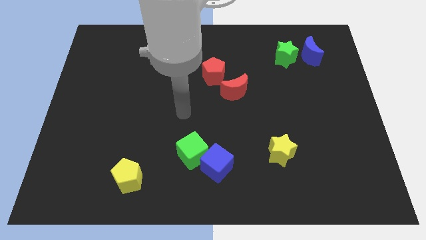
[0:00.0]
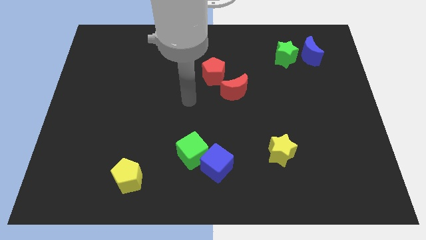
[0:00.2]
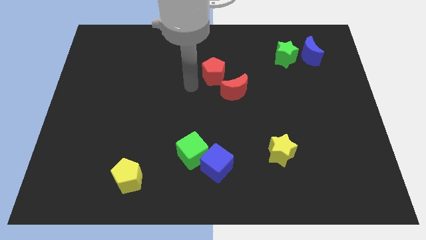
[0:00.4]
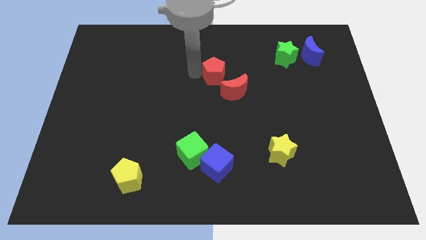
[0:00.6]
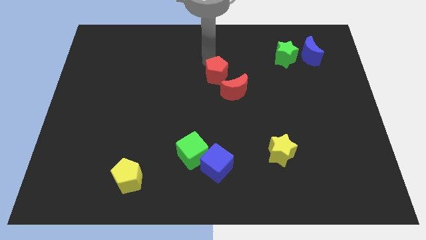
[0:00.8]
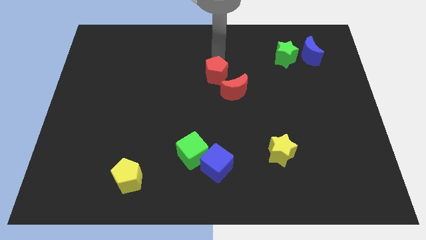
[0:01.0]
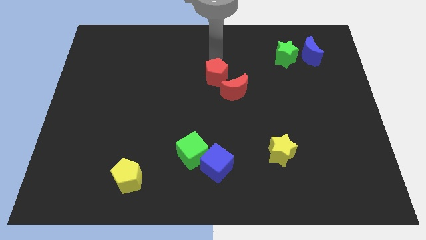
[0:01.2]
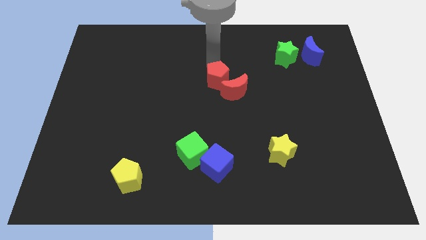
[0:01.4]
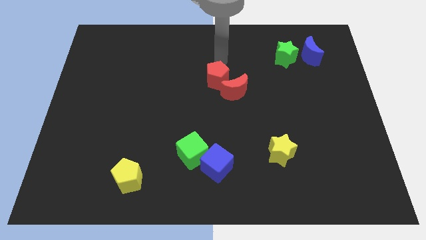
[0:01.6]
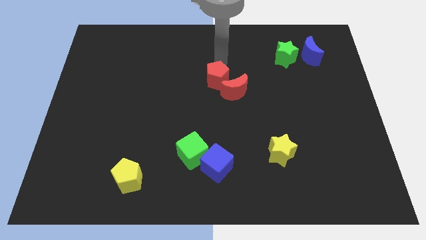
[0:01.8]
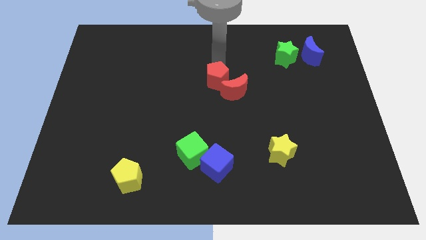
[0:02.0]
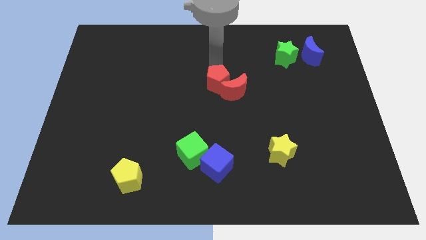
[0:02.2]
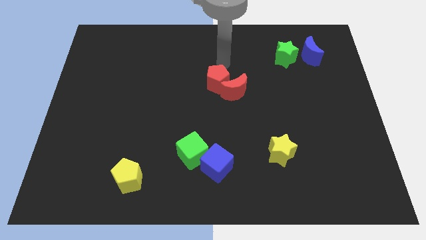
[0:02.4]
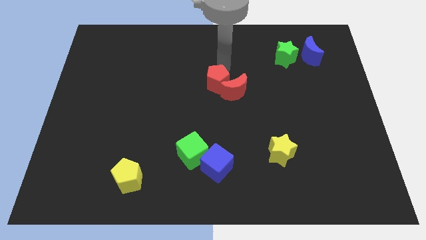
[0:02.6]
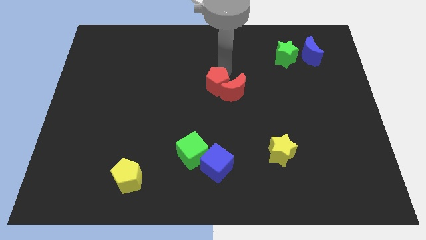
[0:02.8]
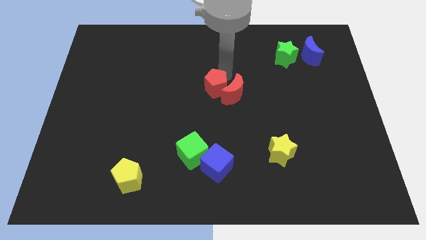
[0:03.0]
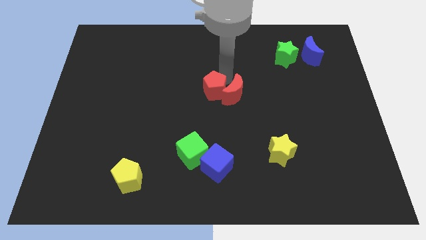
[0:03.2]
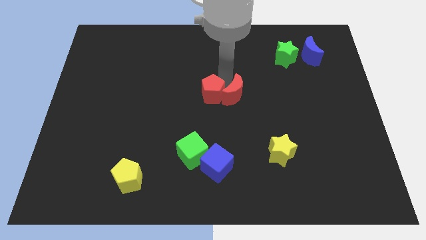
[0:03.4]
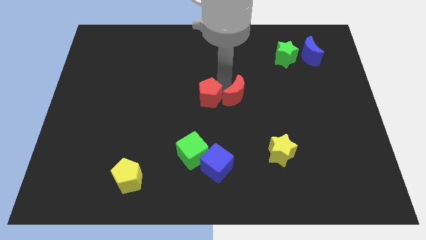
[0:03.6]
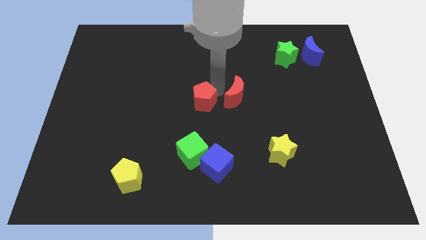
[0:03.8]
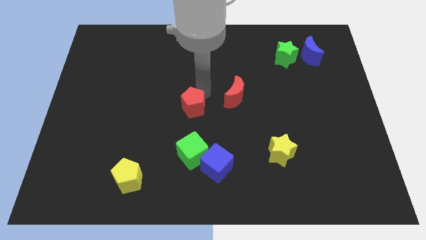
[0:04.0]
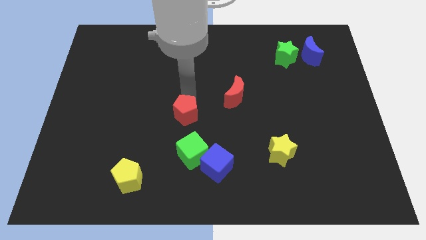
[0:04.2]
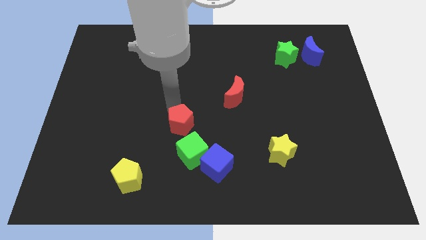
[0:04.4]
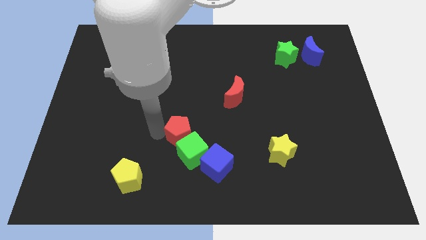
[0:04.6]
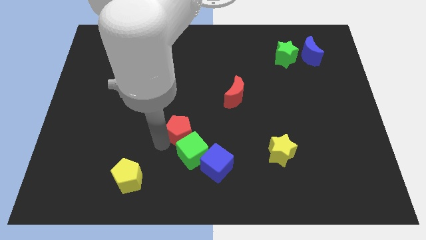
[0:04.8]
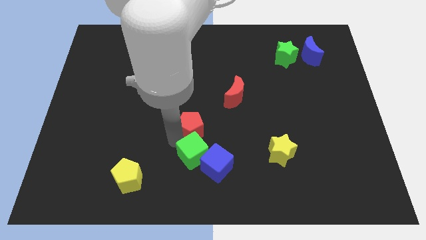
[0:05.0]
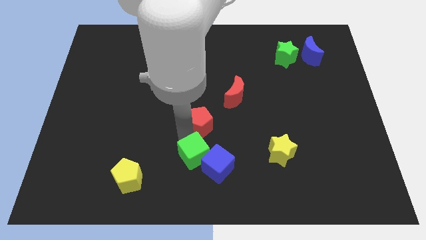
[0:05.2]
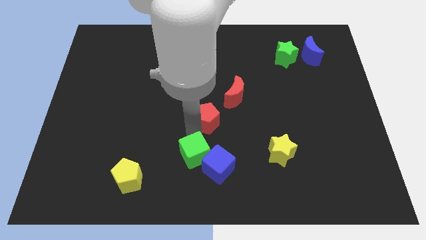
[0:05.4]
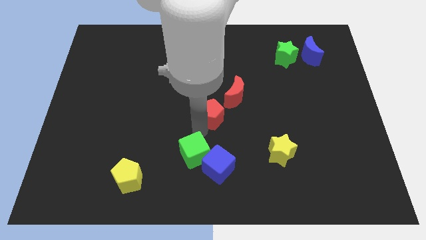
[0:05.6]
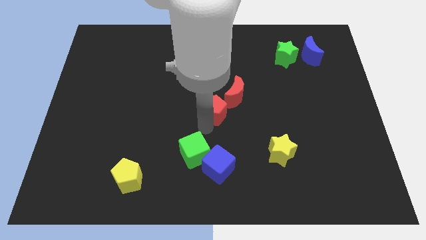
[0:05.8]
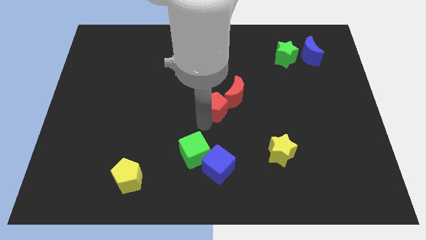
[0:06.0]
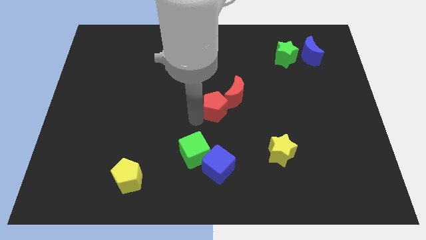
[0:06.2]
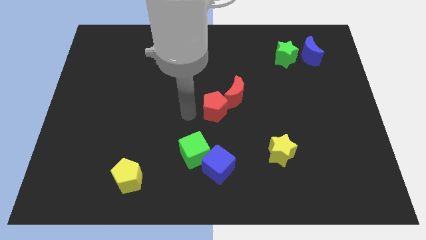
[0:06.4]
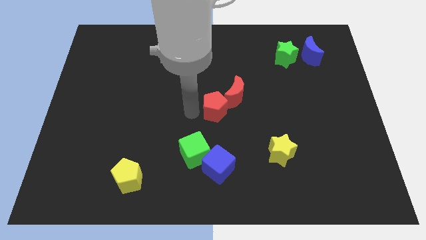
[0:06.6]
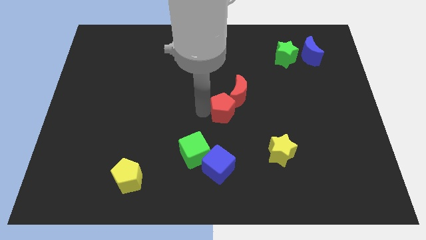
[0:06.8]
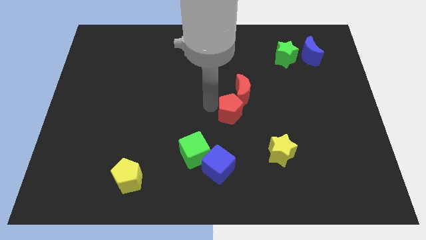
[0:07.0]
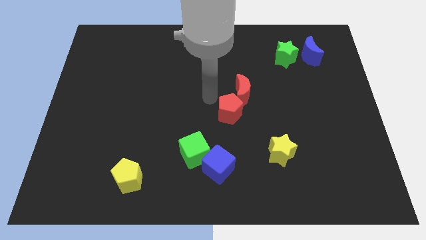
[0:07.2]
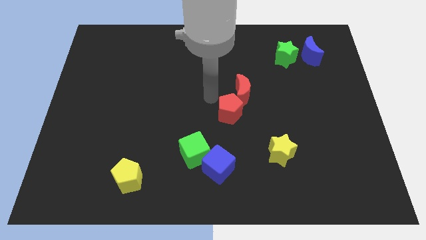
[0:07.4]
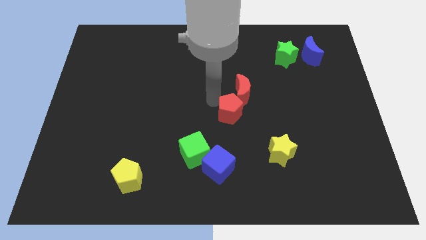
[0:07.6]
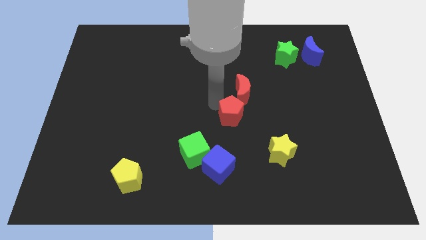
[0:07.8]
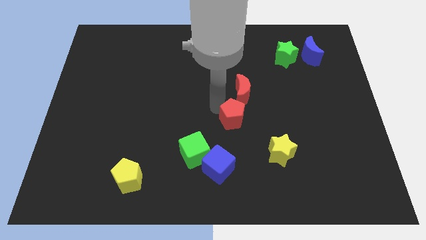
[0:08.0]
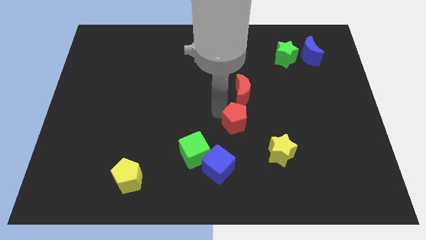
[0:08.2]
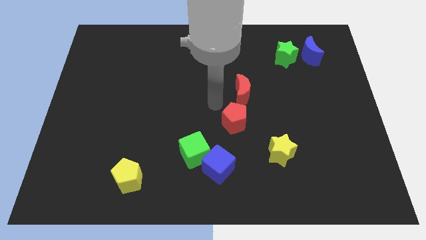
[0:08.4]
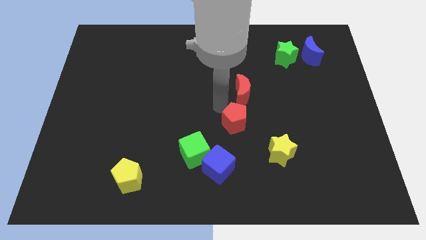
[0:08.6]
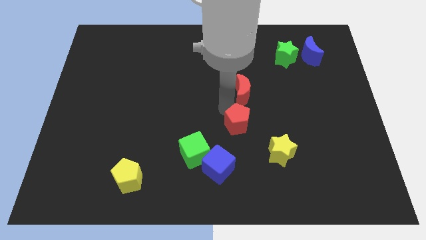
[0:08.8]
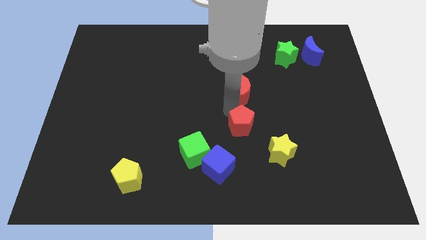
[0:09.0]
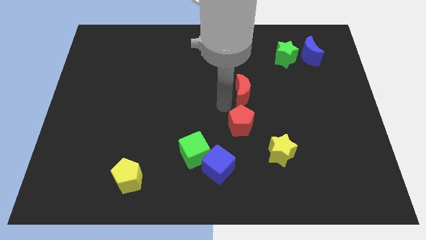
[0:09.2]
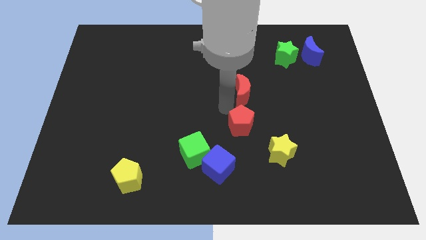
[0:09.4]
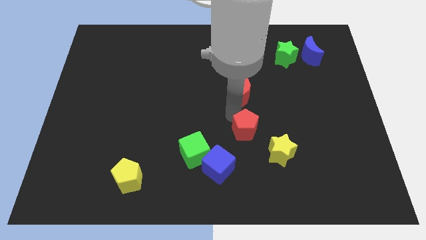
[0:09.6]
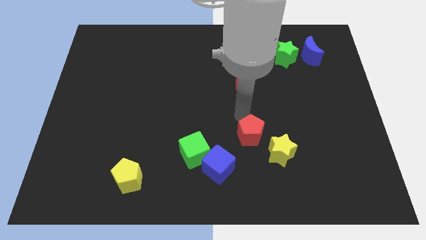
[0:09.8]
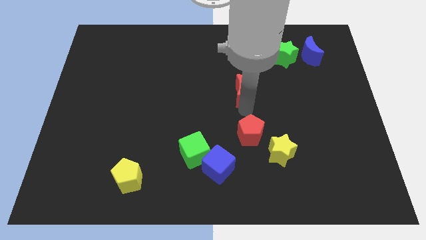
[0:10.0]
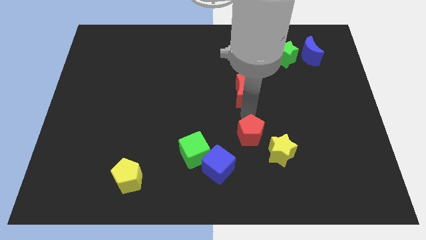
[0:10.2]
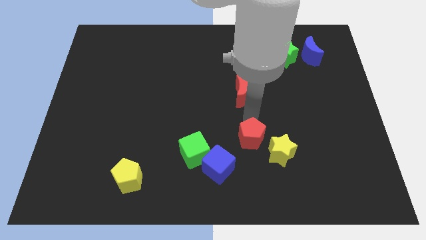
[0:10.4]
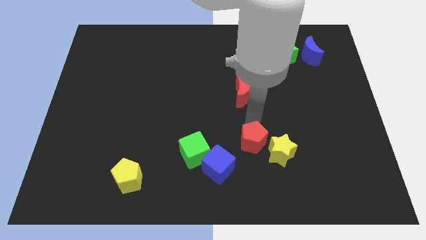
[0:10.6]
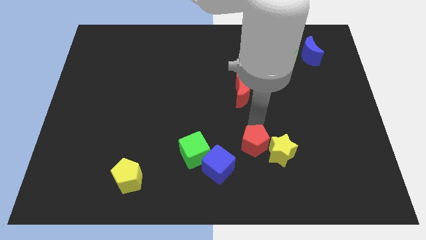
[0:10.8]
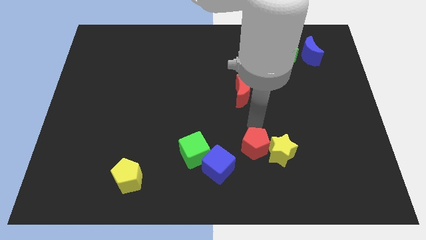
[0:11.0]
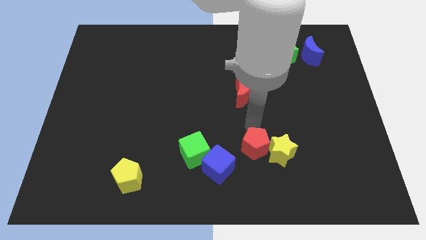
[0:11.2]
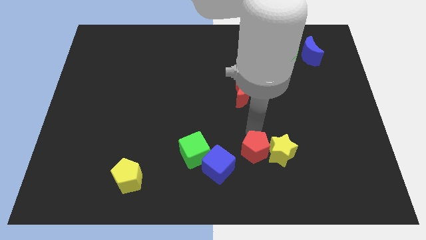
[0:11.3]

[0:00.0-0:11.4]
put the red pentagon to the bottom left of the yellow star
